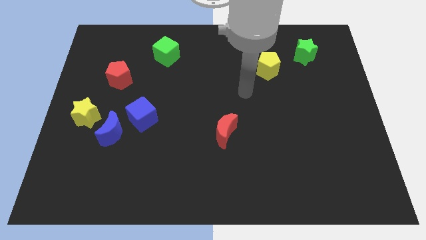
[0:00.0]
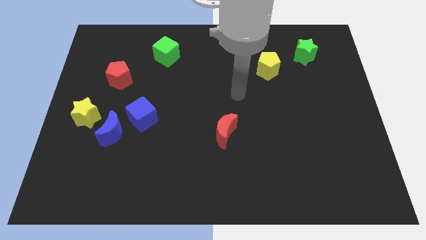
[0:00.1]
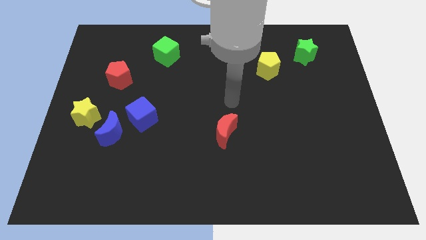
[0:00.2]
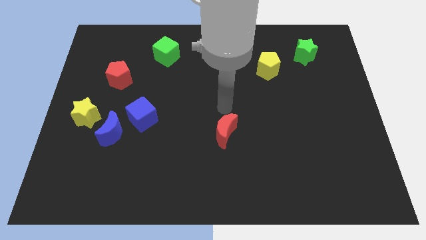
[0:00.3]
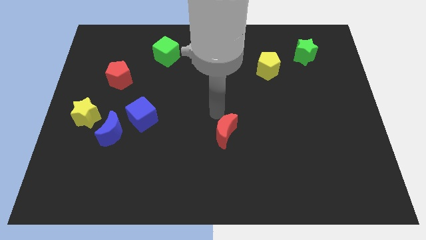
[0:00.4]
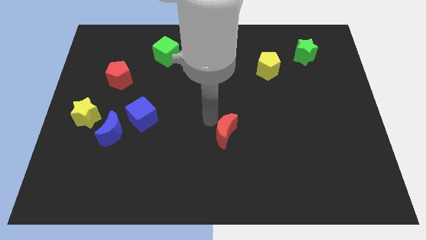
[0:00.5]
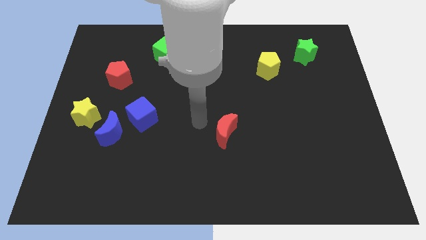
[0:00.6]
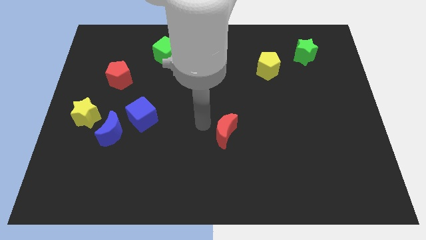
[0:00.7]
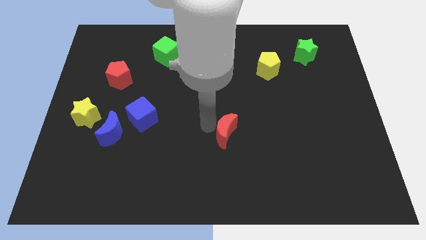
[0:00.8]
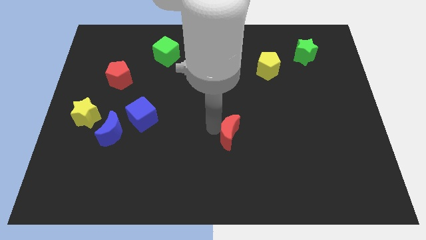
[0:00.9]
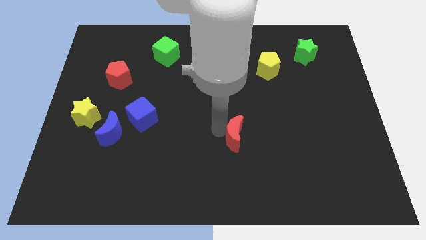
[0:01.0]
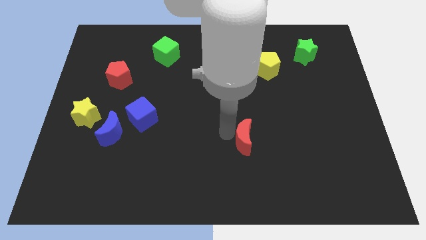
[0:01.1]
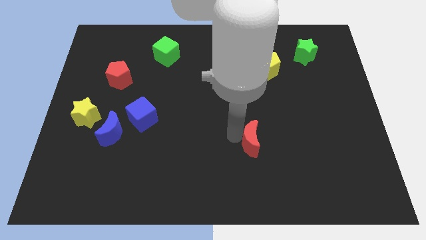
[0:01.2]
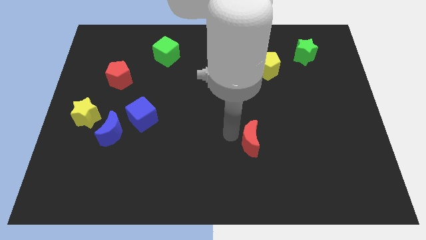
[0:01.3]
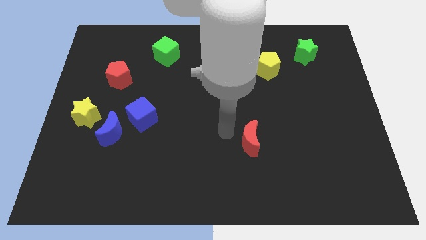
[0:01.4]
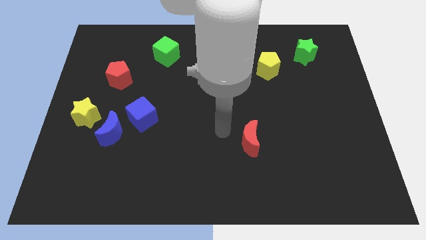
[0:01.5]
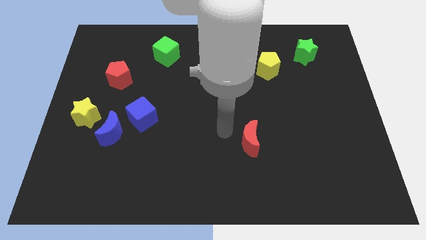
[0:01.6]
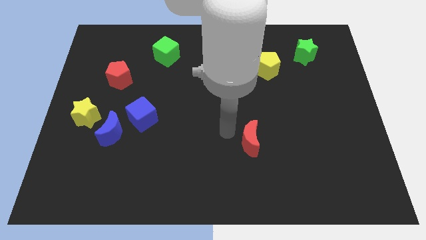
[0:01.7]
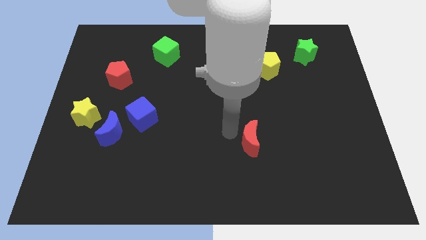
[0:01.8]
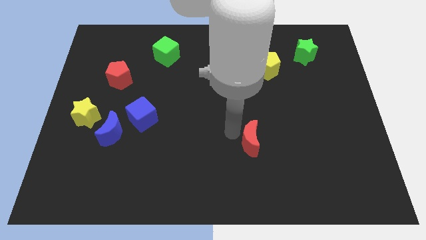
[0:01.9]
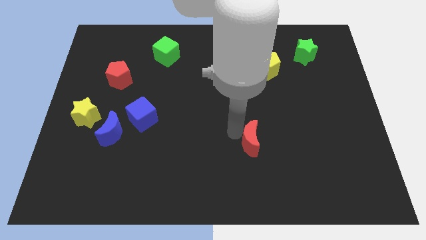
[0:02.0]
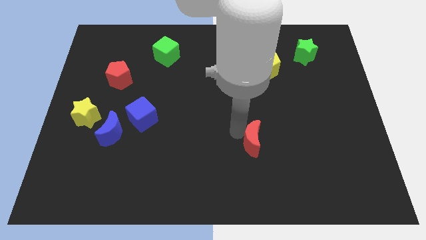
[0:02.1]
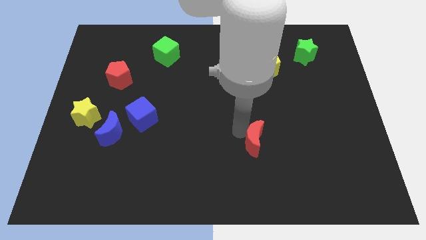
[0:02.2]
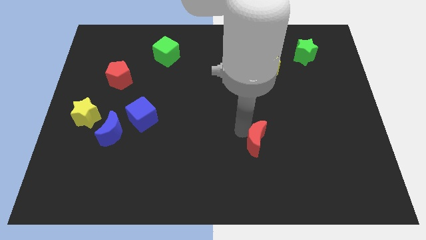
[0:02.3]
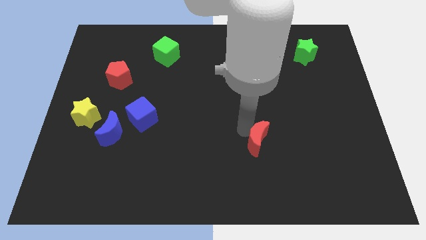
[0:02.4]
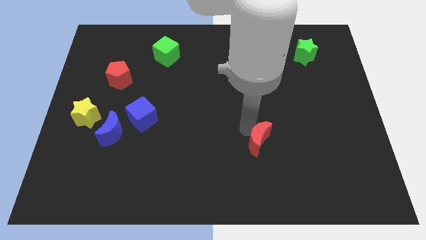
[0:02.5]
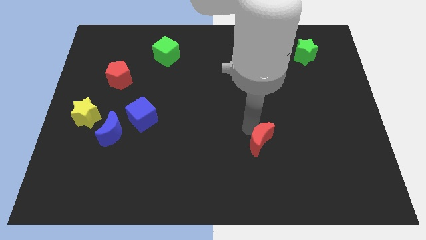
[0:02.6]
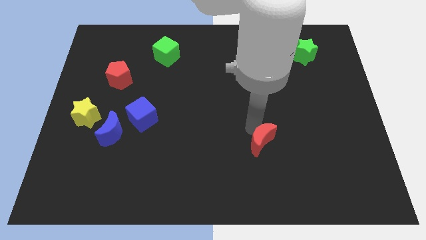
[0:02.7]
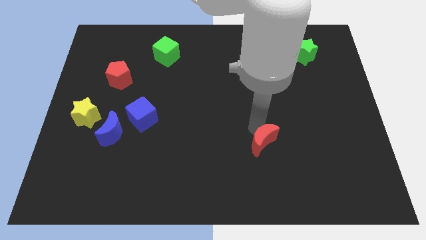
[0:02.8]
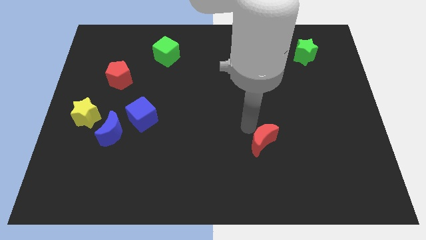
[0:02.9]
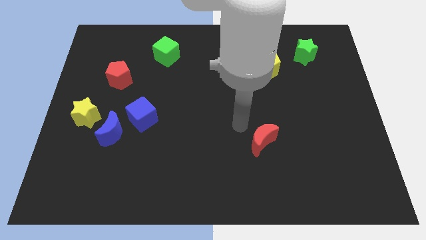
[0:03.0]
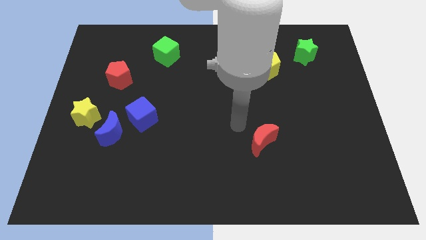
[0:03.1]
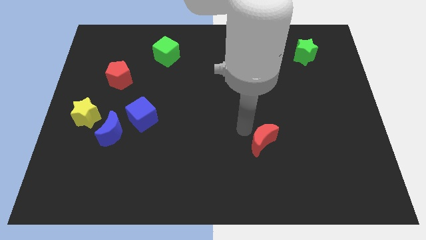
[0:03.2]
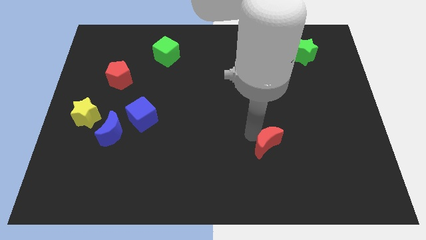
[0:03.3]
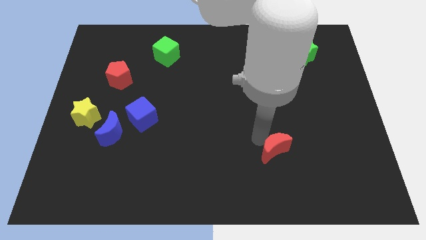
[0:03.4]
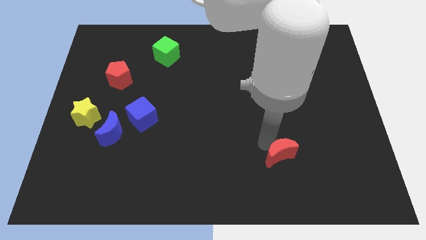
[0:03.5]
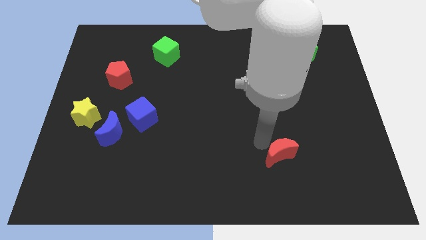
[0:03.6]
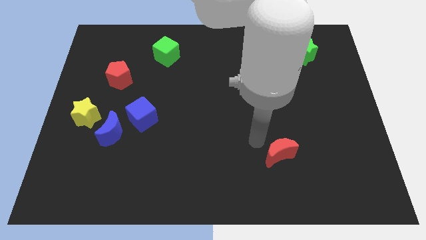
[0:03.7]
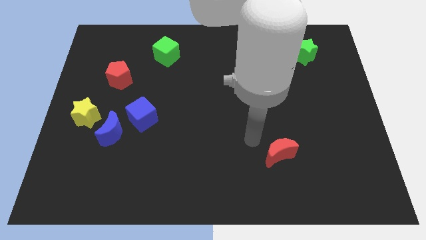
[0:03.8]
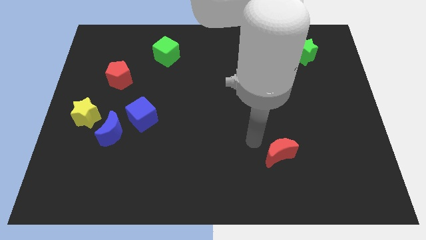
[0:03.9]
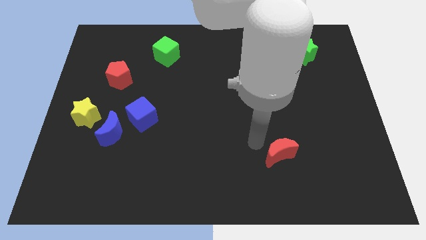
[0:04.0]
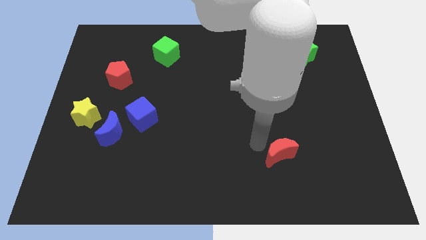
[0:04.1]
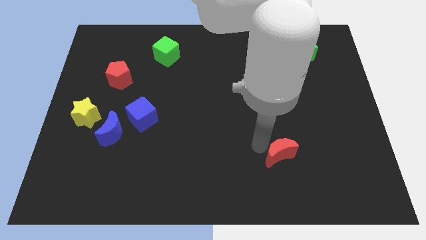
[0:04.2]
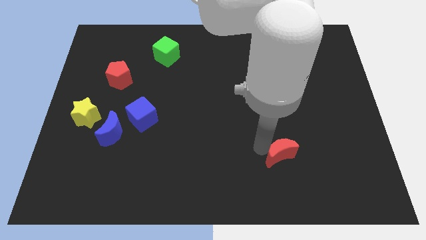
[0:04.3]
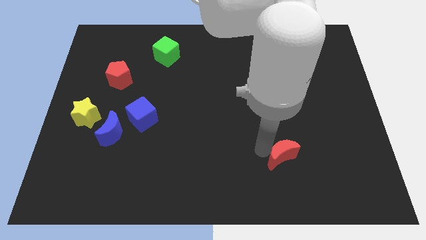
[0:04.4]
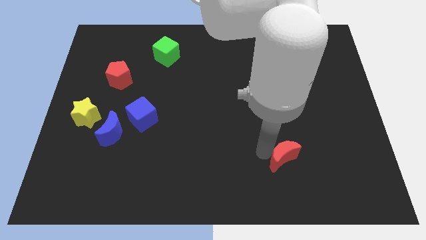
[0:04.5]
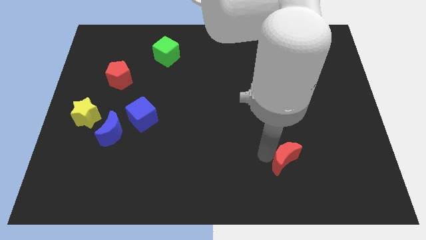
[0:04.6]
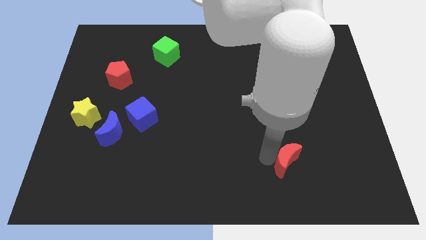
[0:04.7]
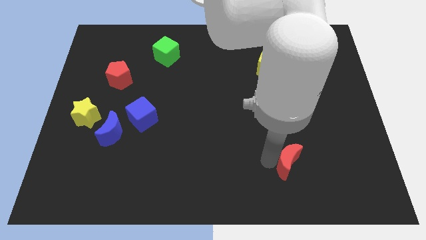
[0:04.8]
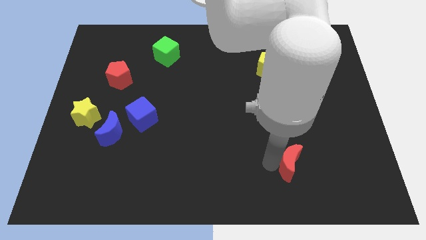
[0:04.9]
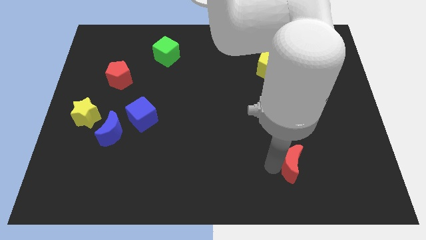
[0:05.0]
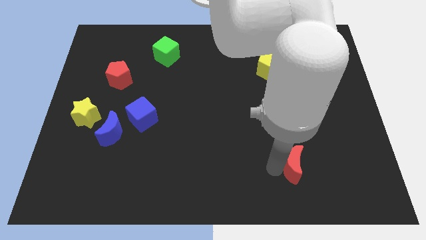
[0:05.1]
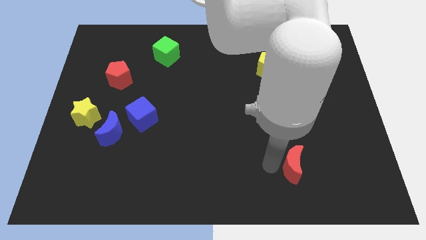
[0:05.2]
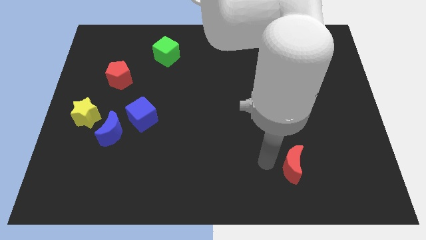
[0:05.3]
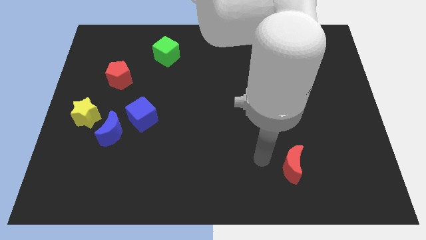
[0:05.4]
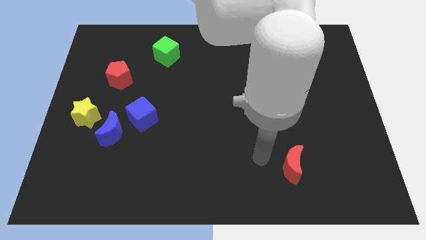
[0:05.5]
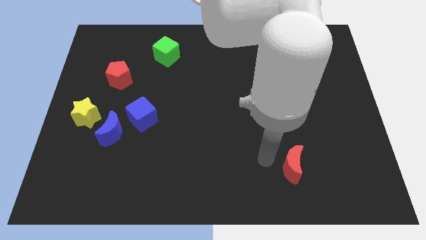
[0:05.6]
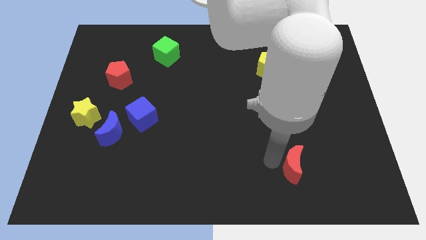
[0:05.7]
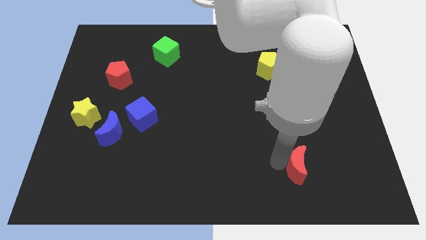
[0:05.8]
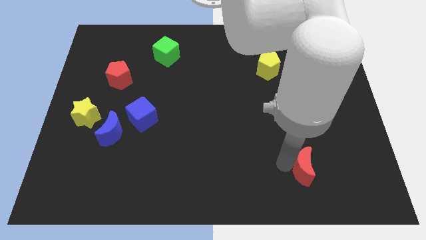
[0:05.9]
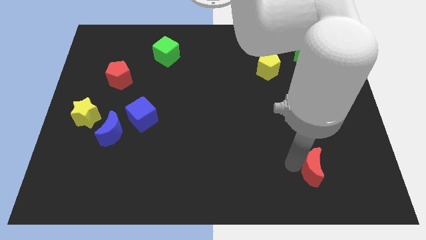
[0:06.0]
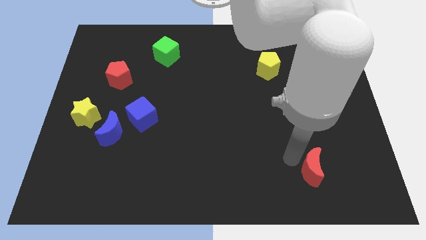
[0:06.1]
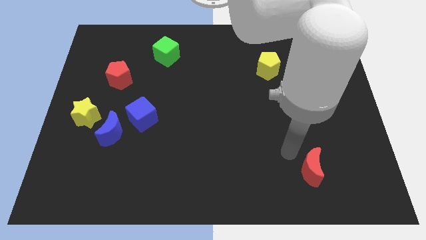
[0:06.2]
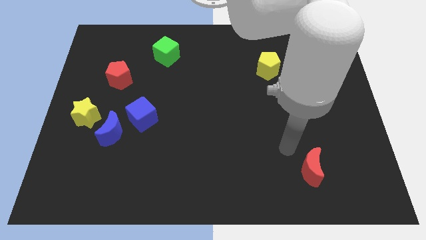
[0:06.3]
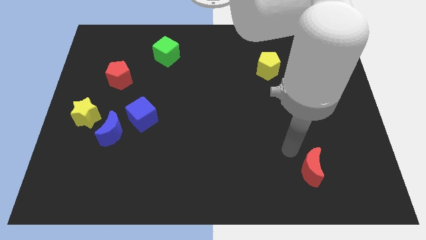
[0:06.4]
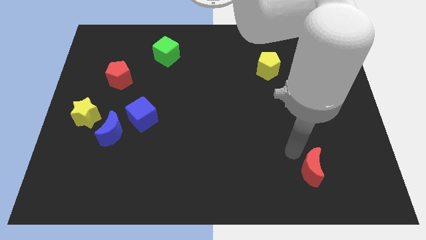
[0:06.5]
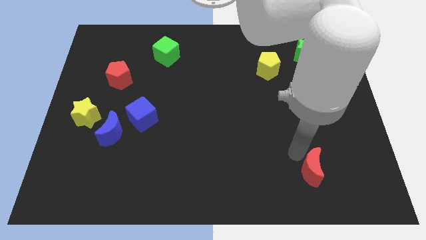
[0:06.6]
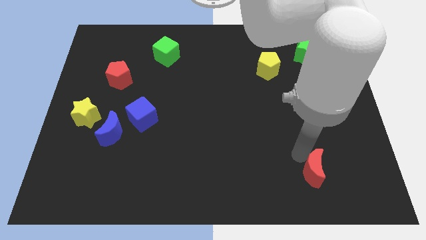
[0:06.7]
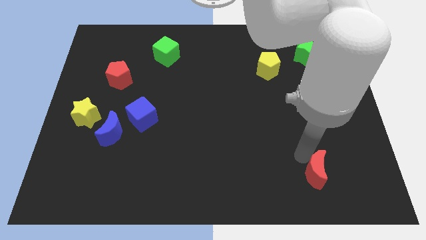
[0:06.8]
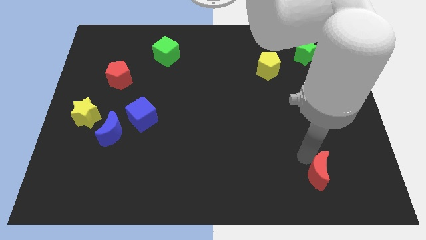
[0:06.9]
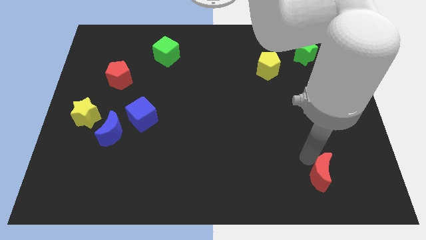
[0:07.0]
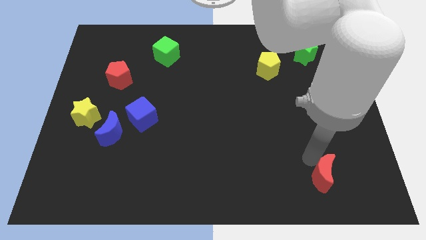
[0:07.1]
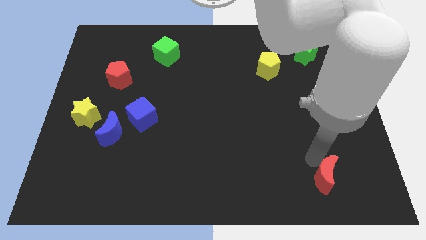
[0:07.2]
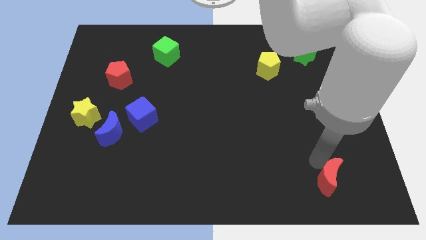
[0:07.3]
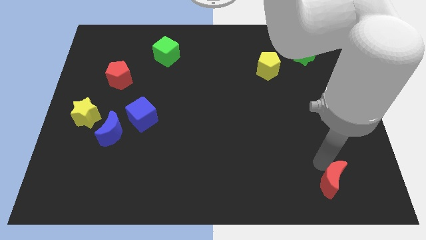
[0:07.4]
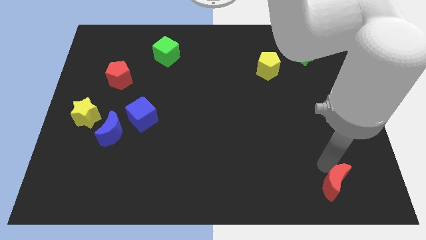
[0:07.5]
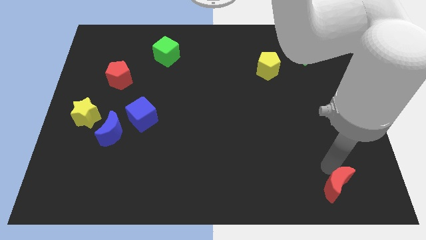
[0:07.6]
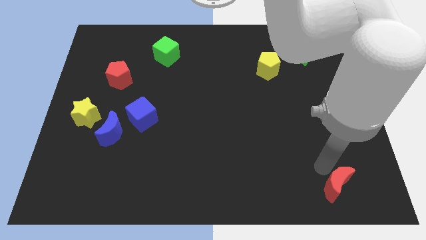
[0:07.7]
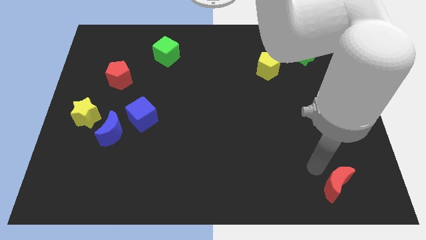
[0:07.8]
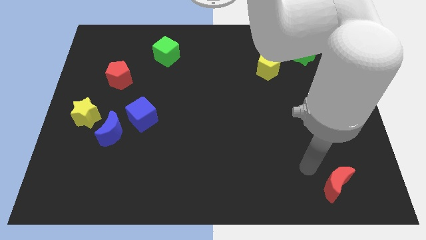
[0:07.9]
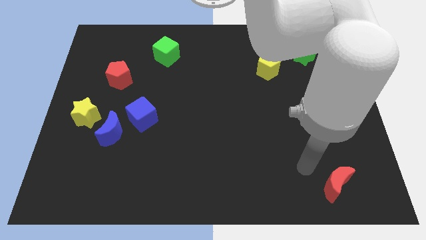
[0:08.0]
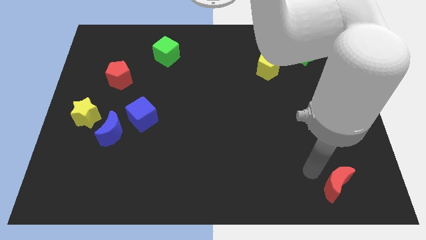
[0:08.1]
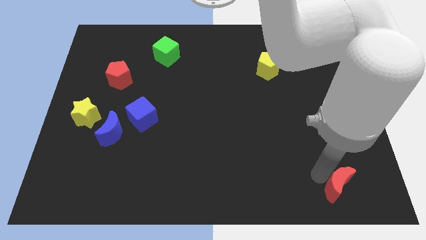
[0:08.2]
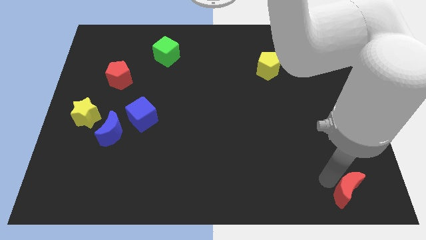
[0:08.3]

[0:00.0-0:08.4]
put the red moon to the lower right corner
